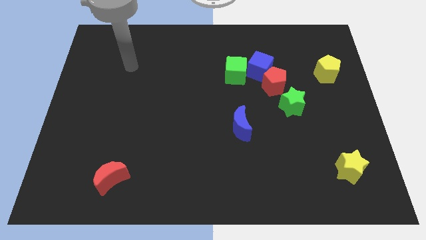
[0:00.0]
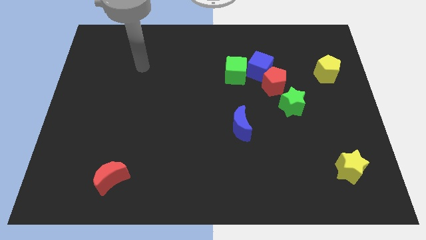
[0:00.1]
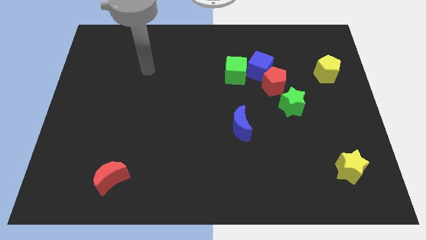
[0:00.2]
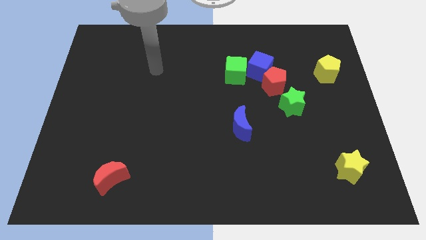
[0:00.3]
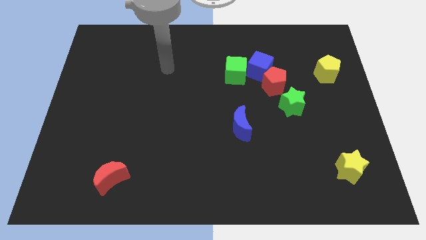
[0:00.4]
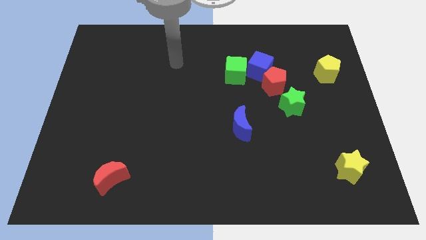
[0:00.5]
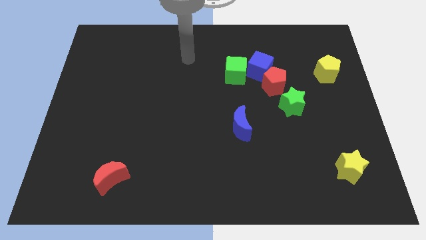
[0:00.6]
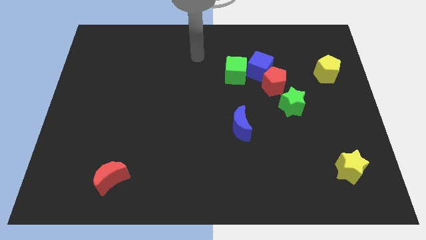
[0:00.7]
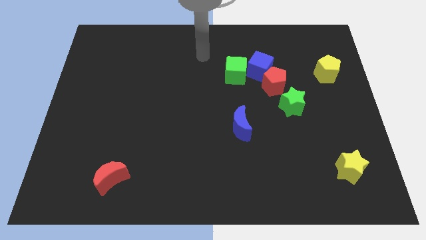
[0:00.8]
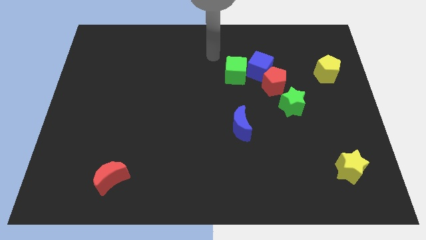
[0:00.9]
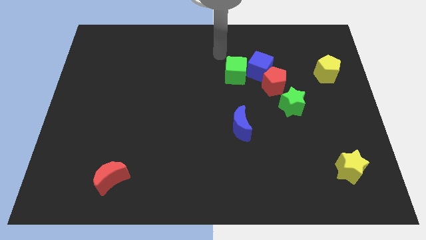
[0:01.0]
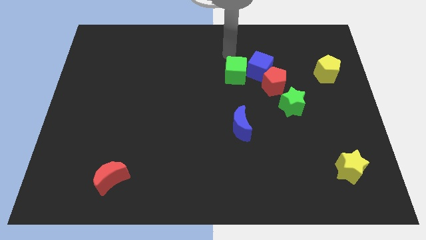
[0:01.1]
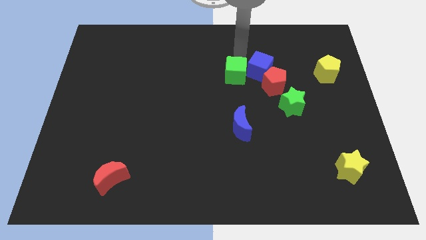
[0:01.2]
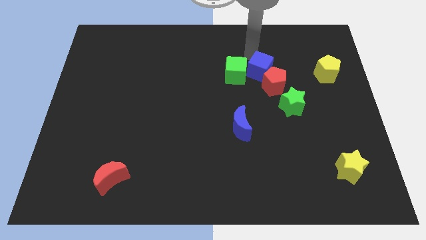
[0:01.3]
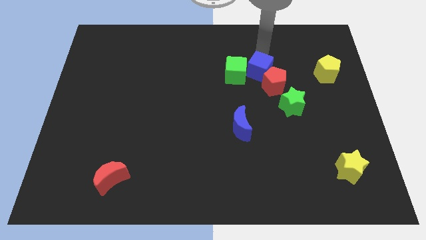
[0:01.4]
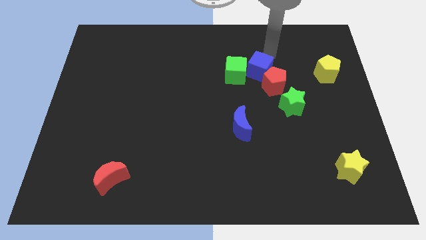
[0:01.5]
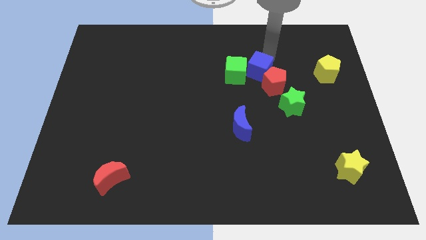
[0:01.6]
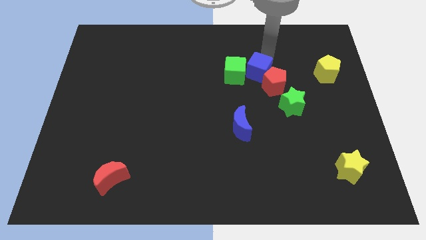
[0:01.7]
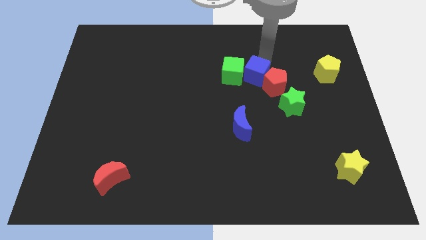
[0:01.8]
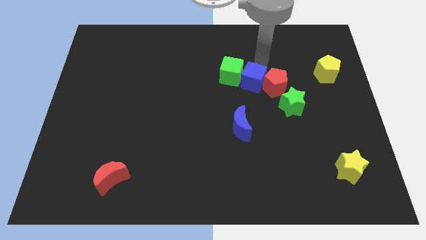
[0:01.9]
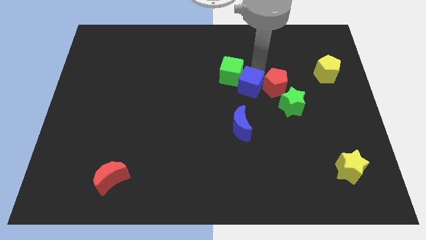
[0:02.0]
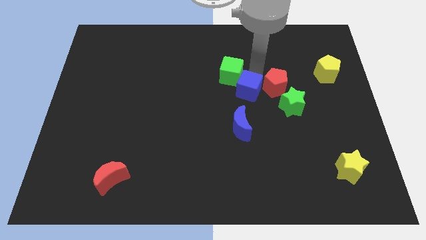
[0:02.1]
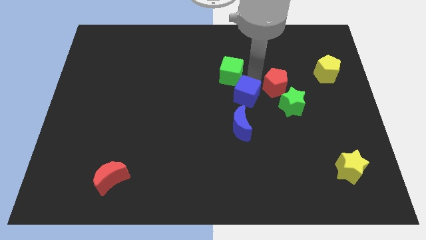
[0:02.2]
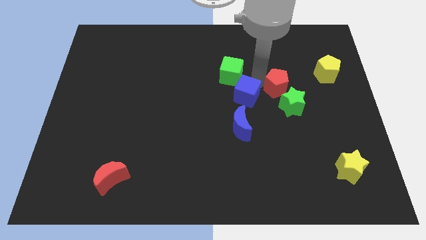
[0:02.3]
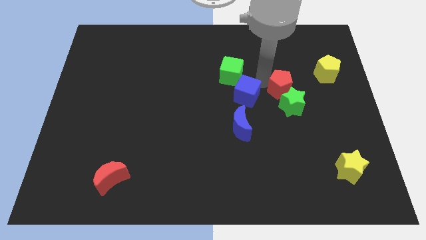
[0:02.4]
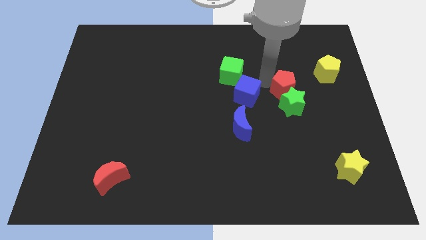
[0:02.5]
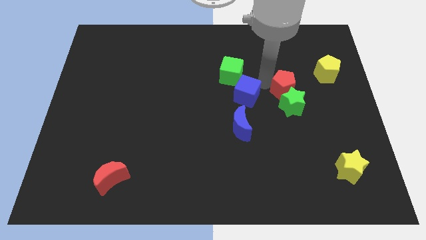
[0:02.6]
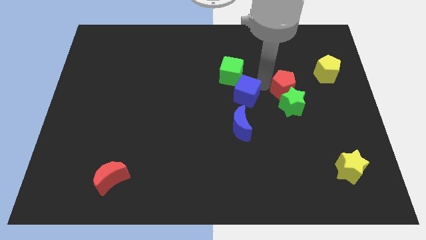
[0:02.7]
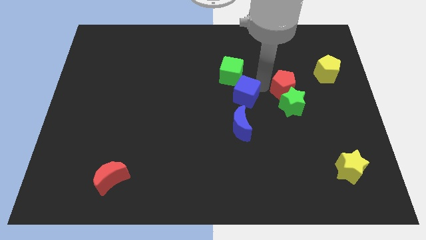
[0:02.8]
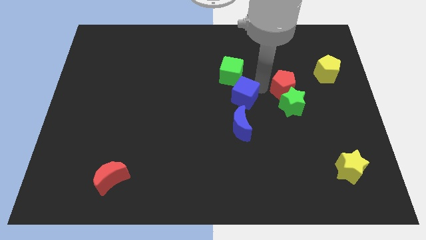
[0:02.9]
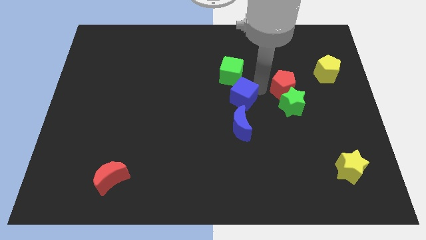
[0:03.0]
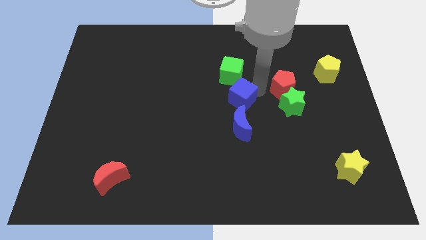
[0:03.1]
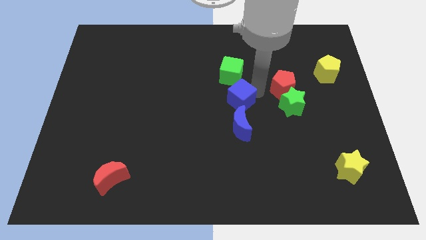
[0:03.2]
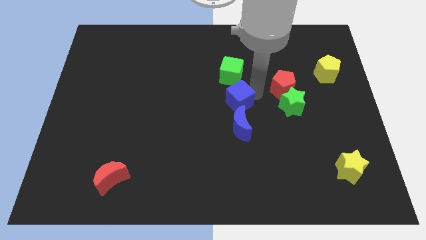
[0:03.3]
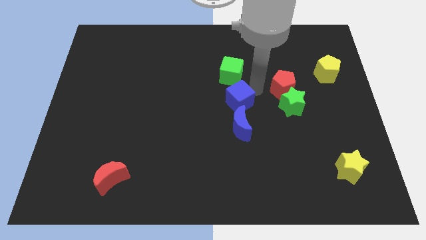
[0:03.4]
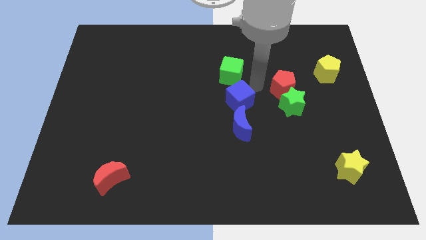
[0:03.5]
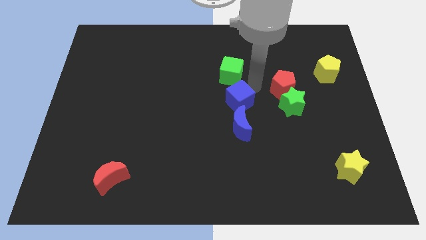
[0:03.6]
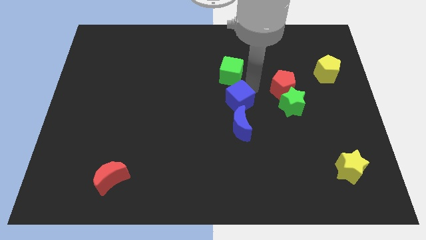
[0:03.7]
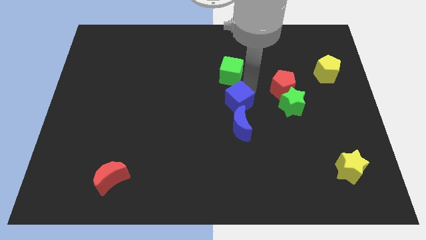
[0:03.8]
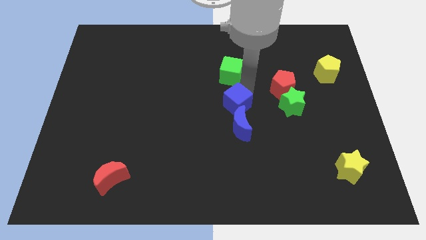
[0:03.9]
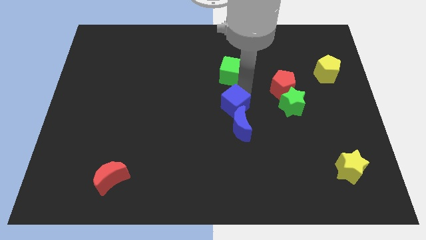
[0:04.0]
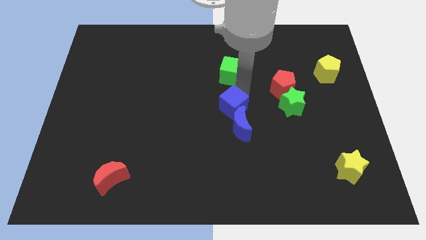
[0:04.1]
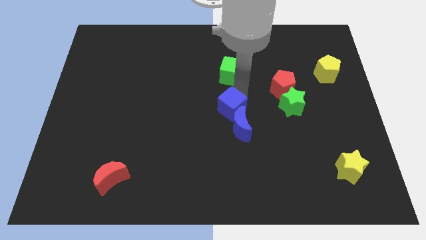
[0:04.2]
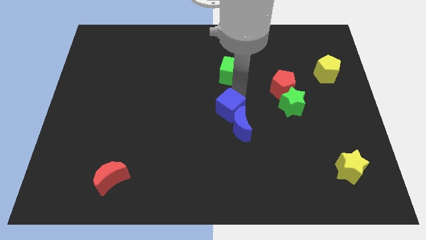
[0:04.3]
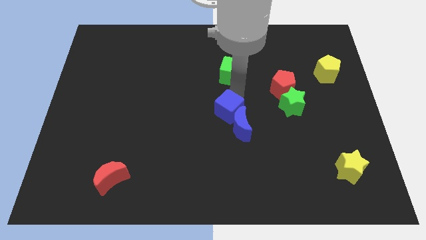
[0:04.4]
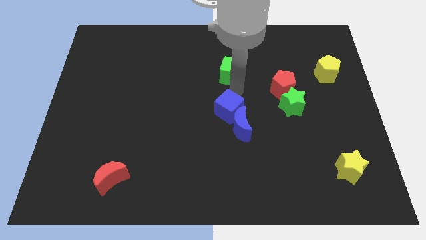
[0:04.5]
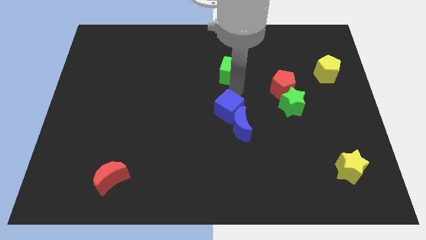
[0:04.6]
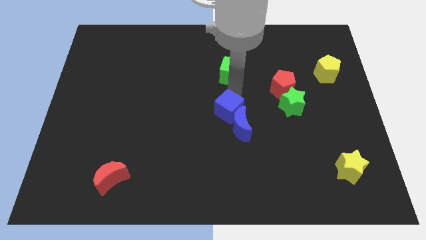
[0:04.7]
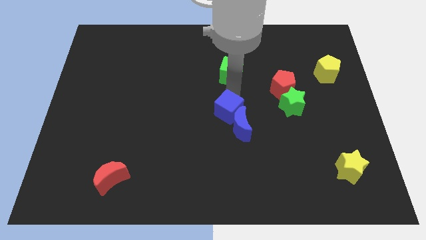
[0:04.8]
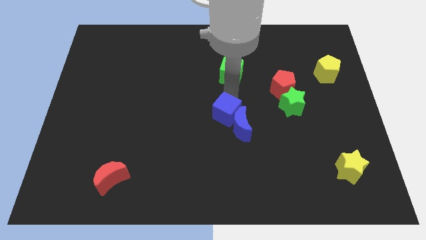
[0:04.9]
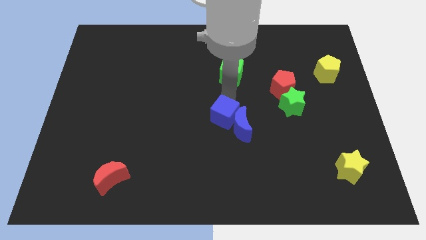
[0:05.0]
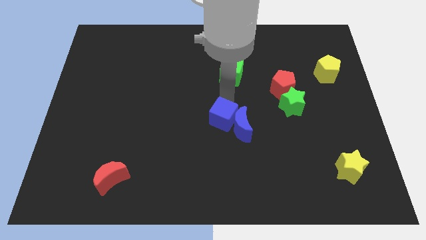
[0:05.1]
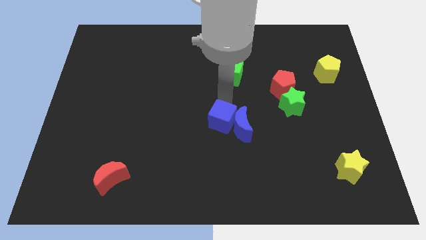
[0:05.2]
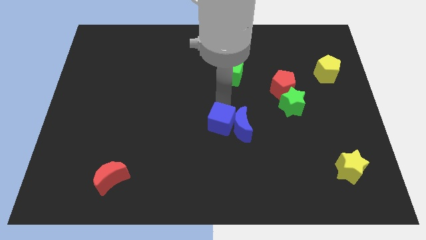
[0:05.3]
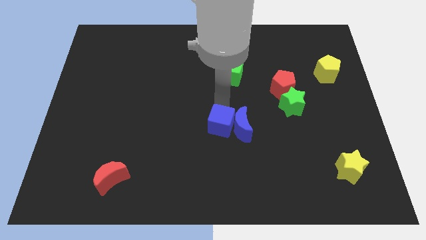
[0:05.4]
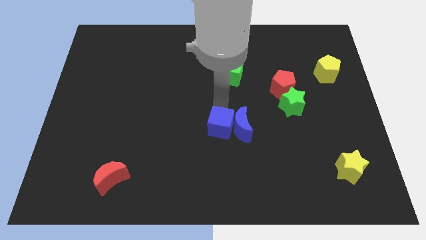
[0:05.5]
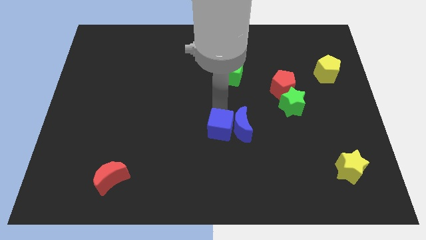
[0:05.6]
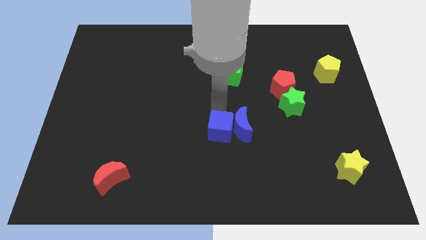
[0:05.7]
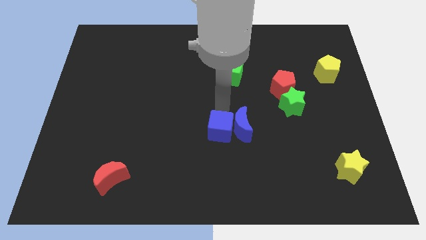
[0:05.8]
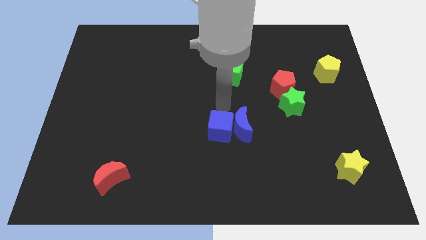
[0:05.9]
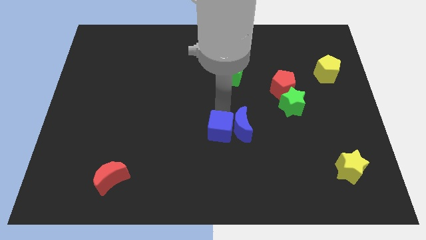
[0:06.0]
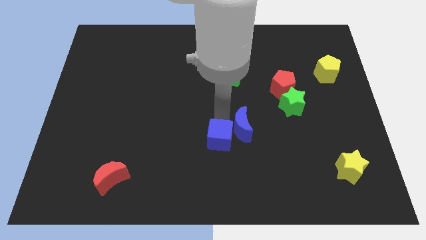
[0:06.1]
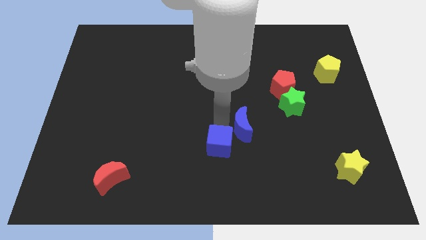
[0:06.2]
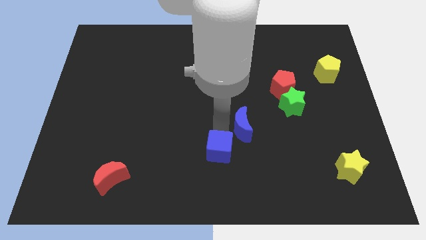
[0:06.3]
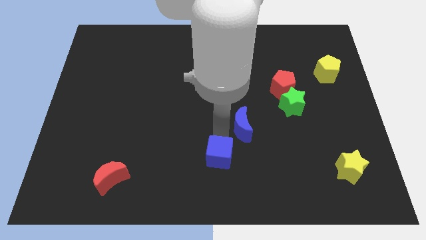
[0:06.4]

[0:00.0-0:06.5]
slide the blue cube to the bottom
